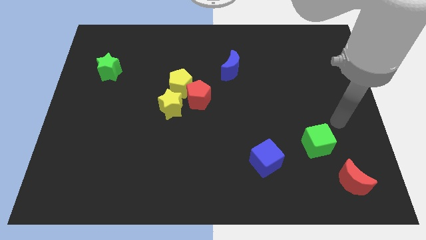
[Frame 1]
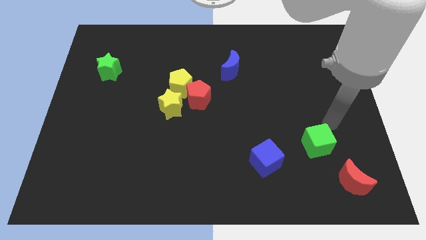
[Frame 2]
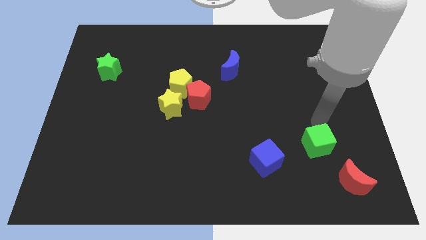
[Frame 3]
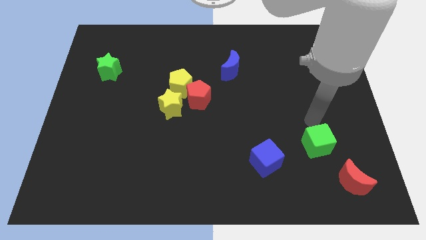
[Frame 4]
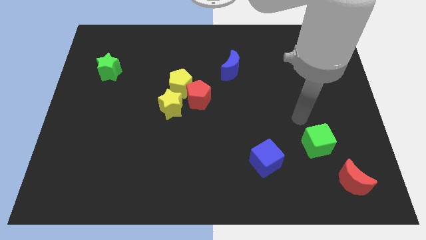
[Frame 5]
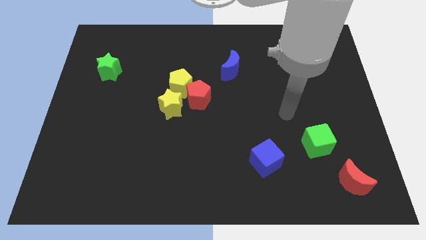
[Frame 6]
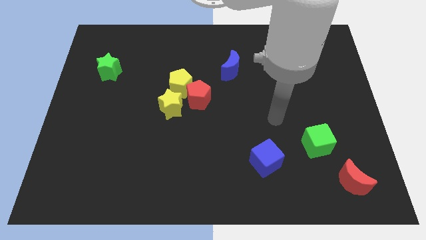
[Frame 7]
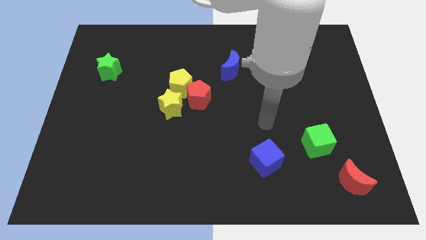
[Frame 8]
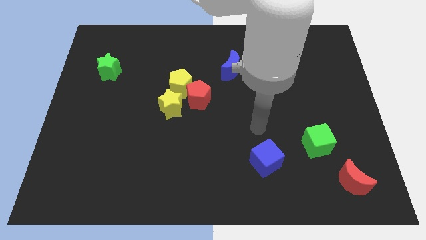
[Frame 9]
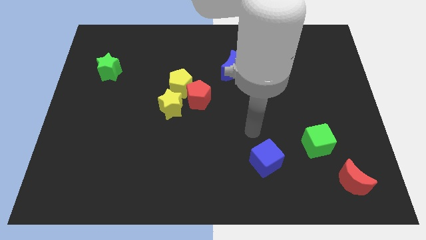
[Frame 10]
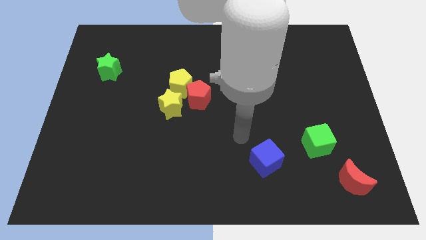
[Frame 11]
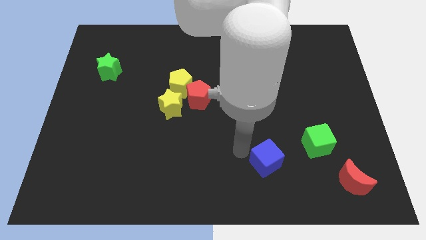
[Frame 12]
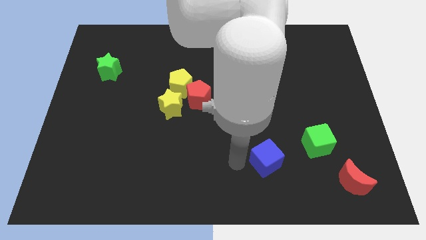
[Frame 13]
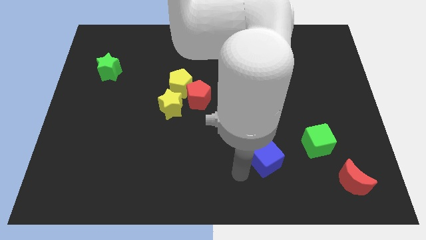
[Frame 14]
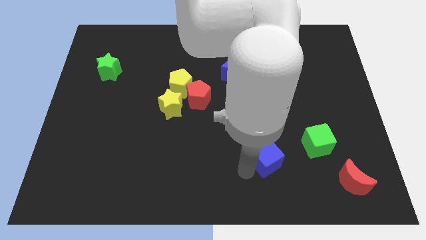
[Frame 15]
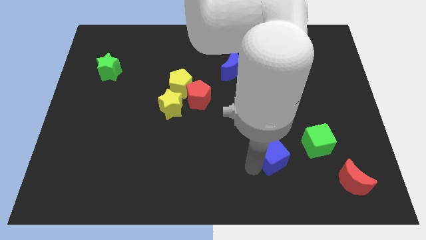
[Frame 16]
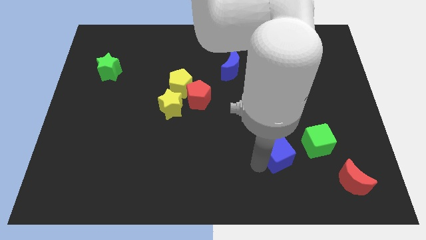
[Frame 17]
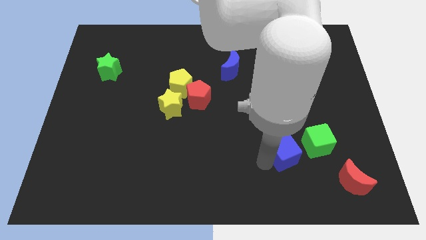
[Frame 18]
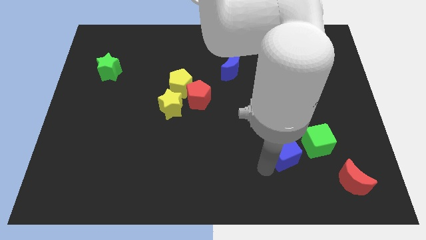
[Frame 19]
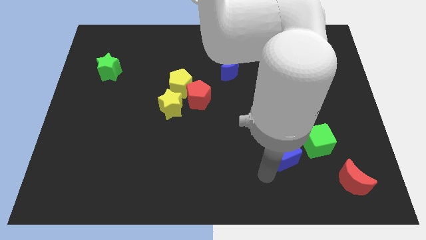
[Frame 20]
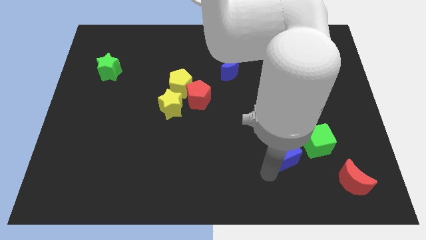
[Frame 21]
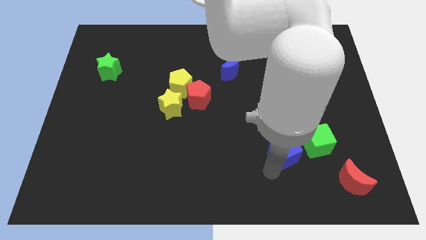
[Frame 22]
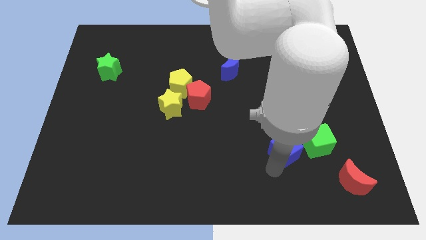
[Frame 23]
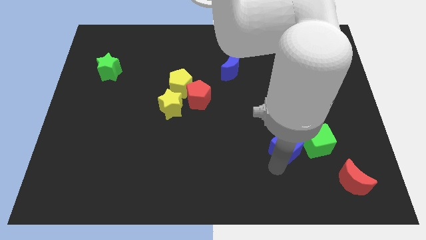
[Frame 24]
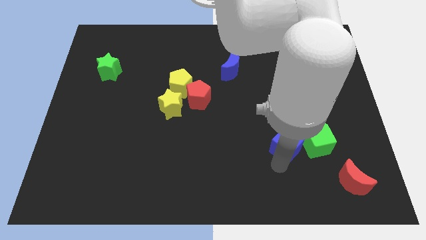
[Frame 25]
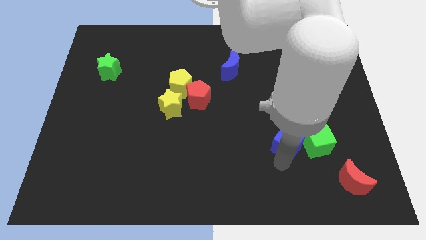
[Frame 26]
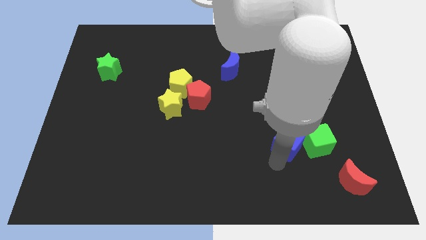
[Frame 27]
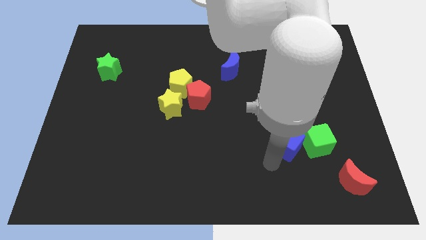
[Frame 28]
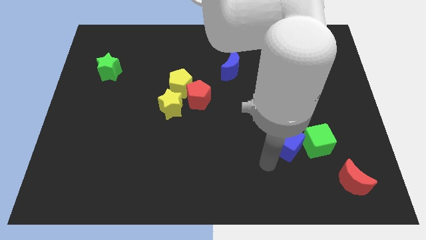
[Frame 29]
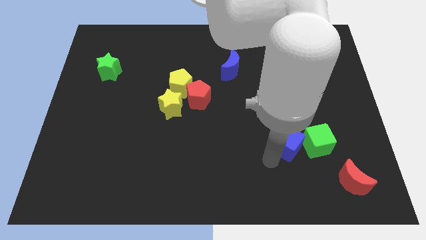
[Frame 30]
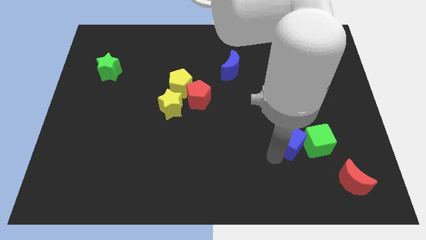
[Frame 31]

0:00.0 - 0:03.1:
slide the blue cube somewhat upwards and to the right diagonally

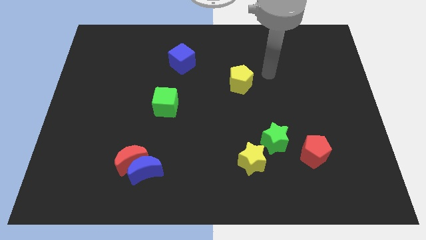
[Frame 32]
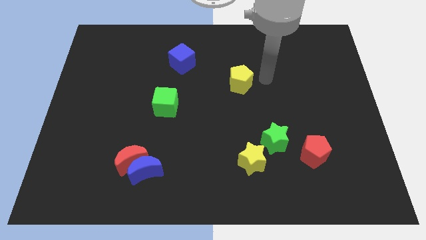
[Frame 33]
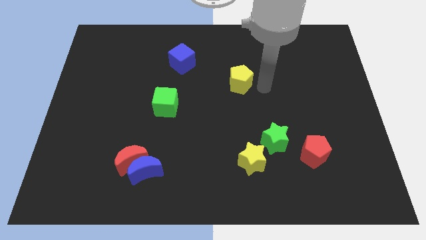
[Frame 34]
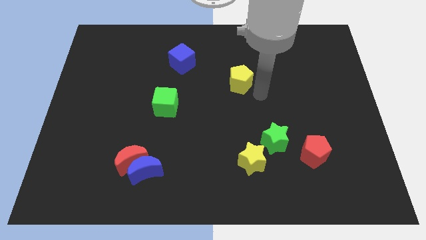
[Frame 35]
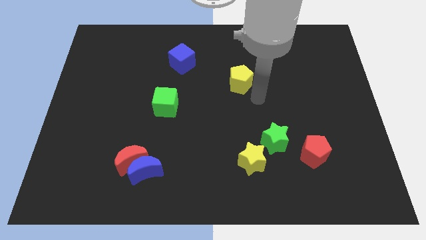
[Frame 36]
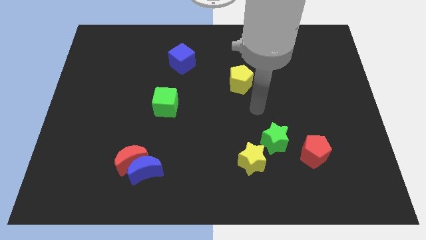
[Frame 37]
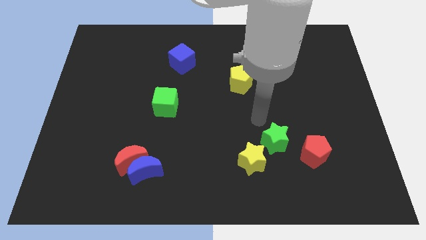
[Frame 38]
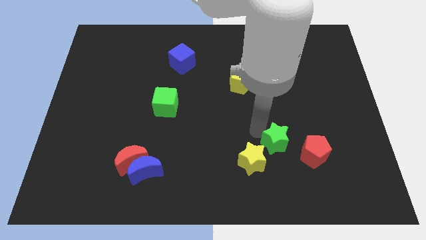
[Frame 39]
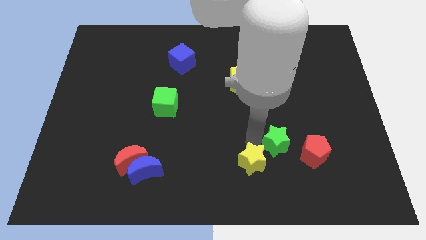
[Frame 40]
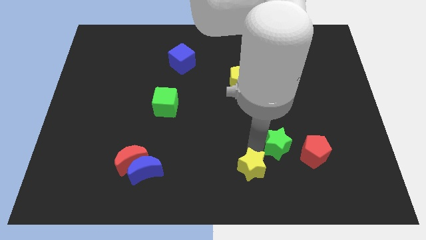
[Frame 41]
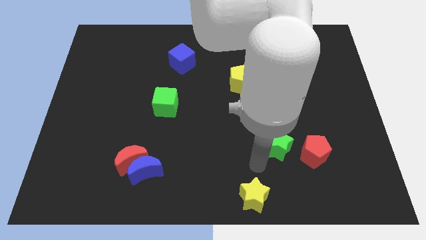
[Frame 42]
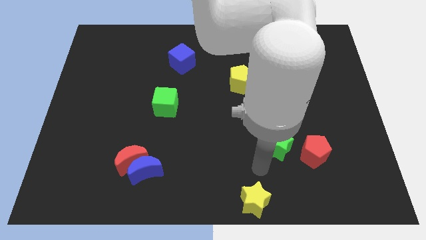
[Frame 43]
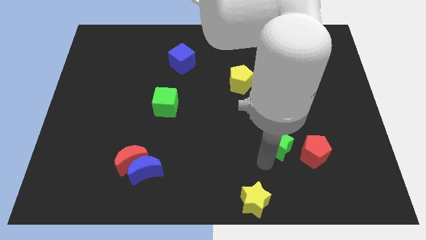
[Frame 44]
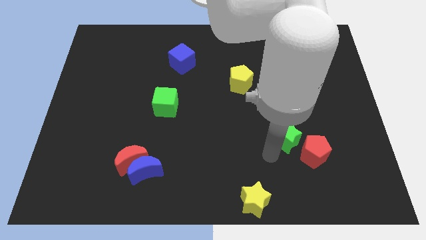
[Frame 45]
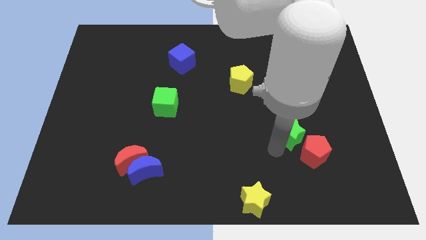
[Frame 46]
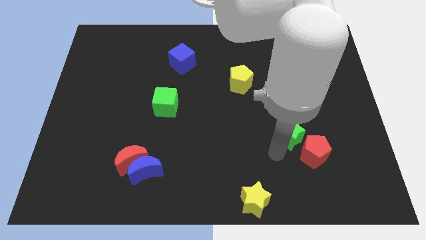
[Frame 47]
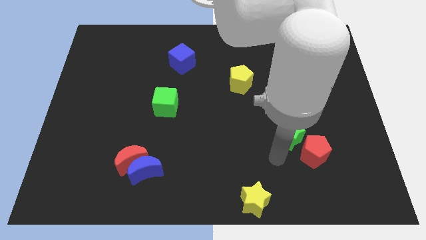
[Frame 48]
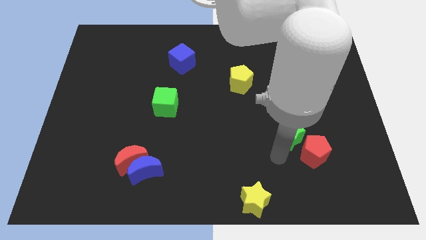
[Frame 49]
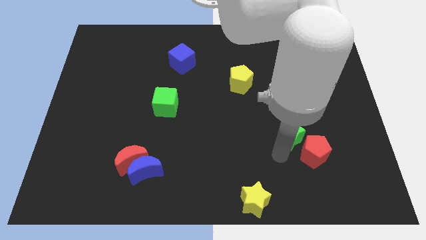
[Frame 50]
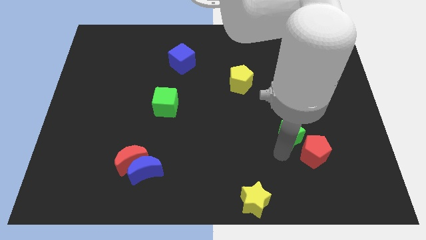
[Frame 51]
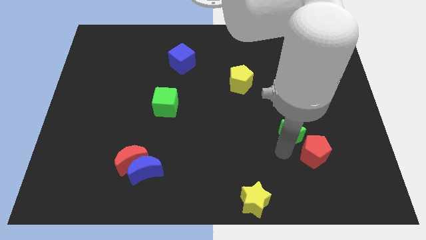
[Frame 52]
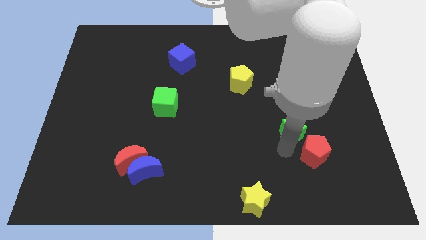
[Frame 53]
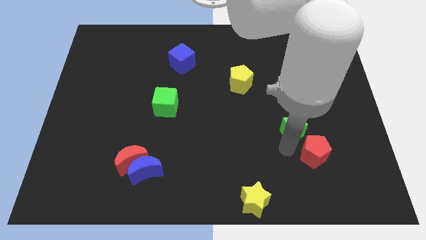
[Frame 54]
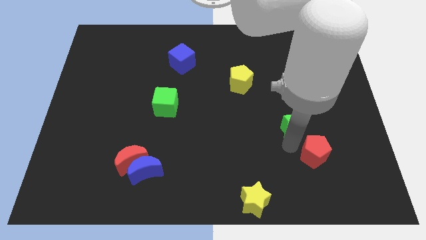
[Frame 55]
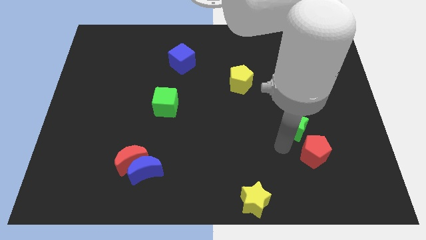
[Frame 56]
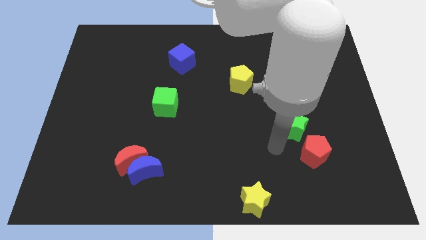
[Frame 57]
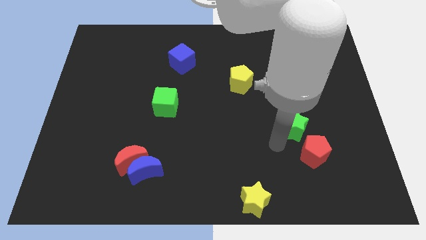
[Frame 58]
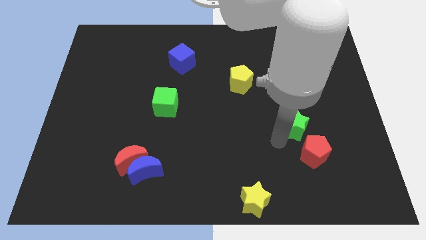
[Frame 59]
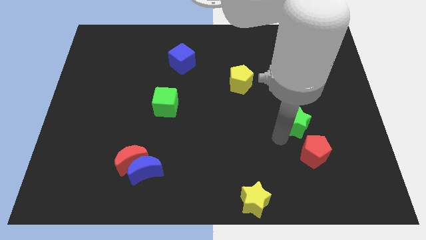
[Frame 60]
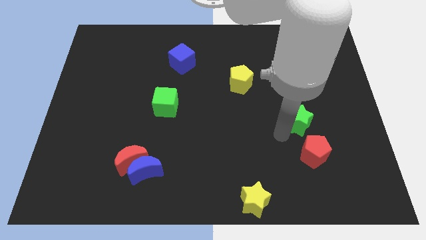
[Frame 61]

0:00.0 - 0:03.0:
push the green star a little bit upwards and to the right diagonally

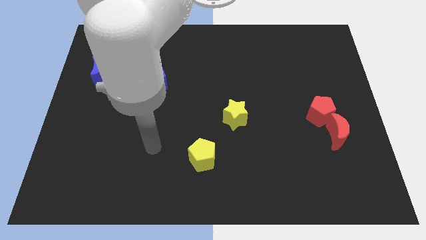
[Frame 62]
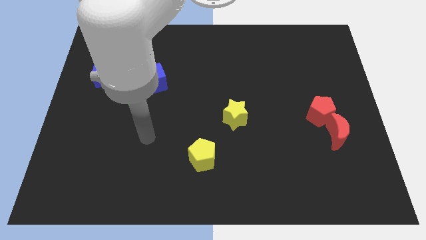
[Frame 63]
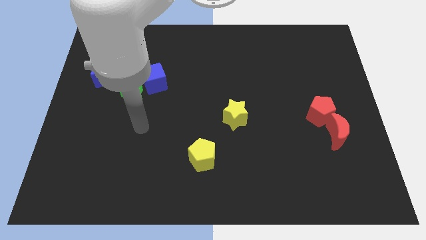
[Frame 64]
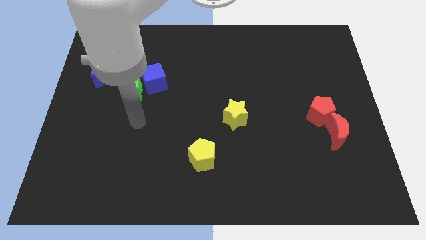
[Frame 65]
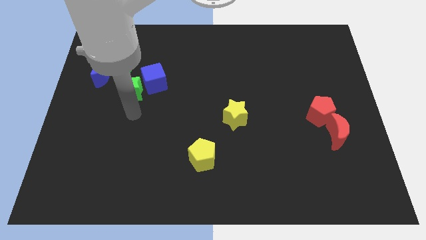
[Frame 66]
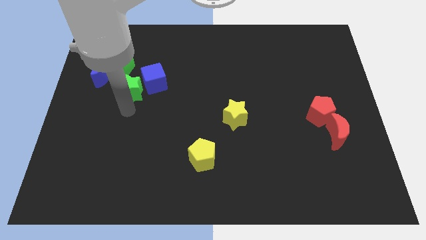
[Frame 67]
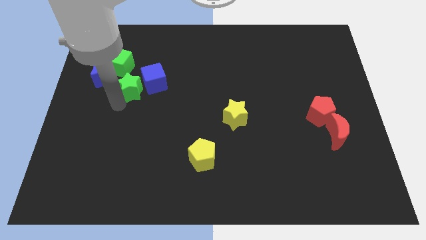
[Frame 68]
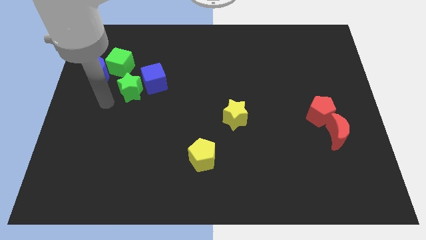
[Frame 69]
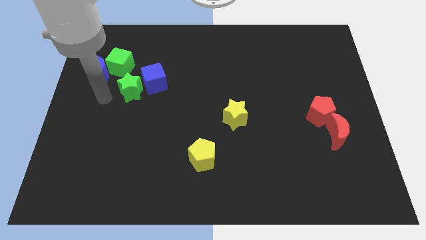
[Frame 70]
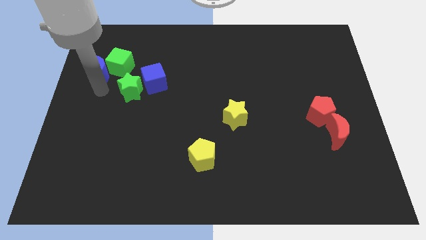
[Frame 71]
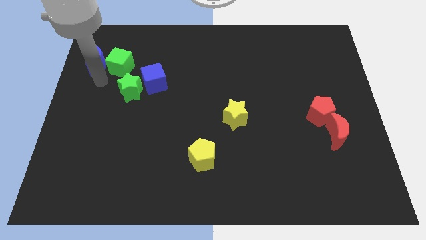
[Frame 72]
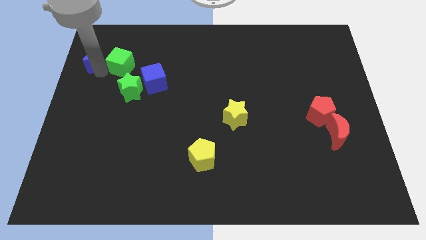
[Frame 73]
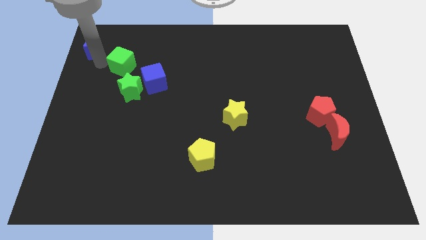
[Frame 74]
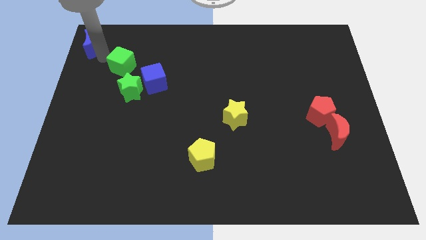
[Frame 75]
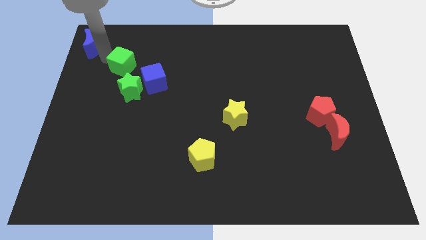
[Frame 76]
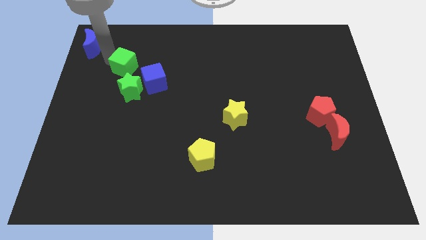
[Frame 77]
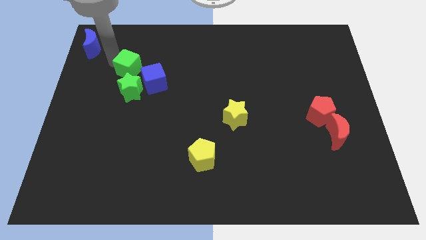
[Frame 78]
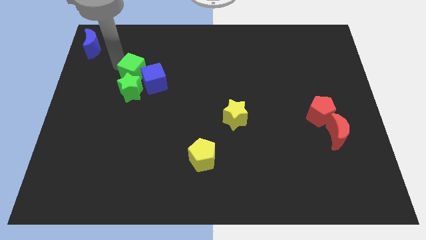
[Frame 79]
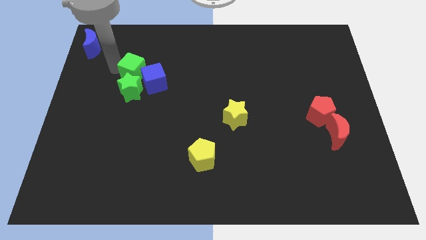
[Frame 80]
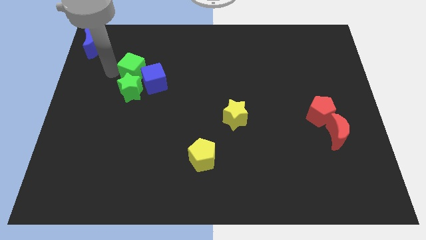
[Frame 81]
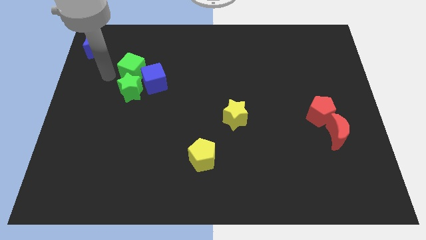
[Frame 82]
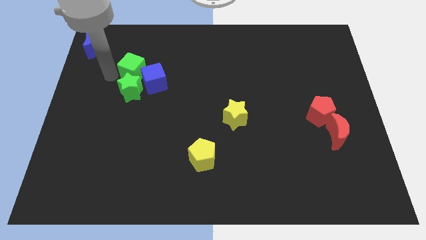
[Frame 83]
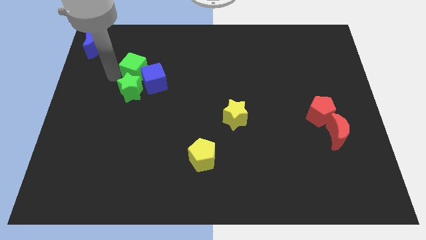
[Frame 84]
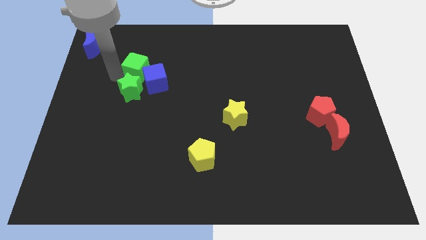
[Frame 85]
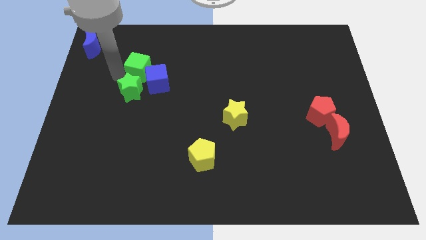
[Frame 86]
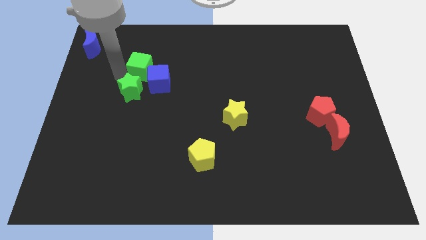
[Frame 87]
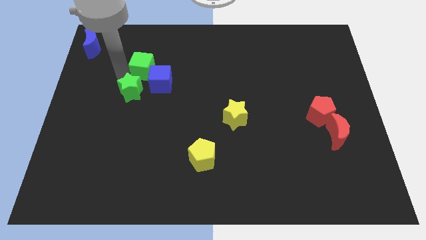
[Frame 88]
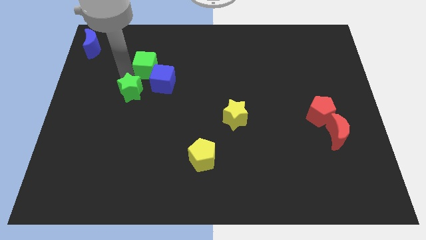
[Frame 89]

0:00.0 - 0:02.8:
slide the green cube a bit to the right
